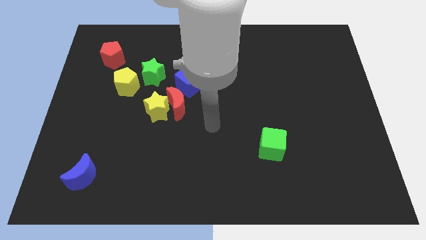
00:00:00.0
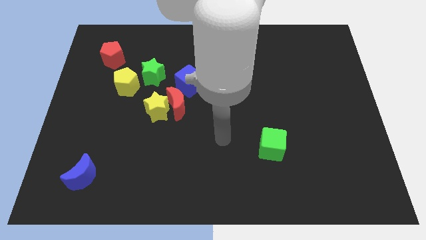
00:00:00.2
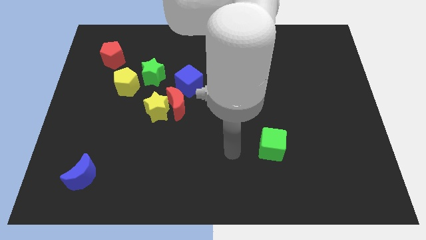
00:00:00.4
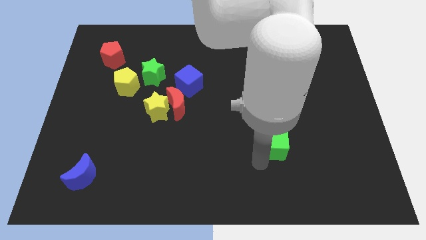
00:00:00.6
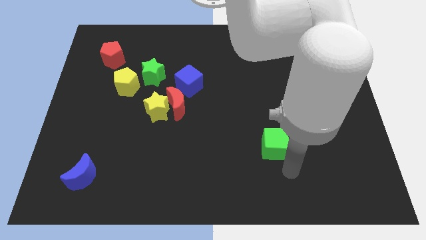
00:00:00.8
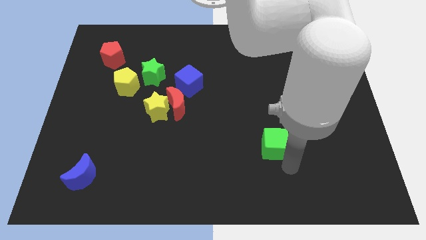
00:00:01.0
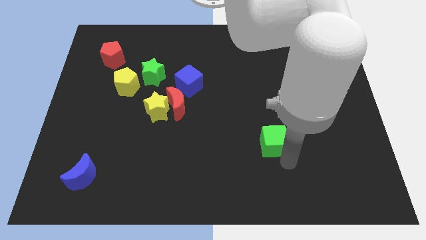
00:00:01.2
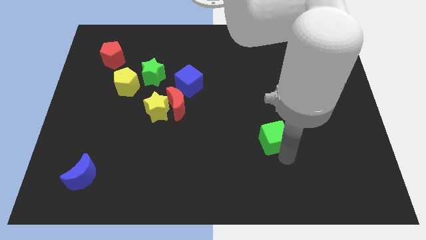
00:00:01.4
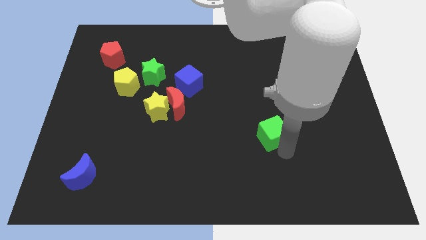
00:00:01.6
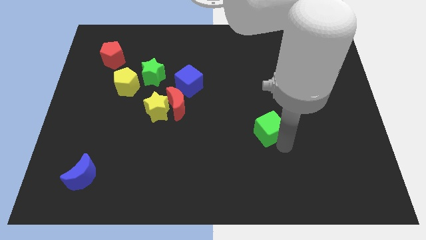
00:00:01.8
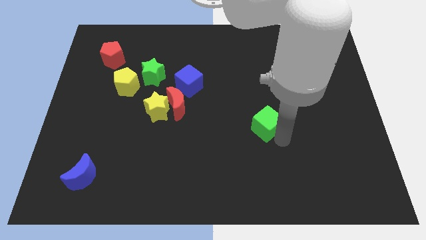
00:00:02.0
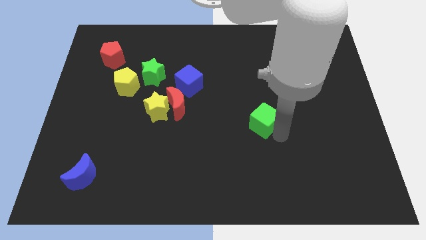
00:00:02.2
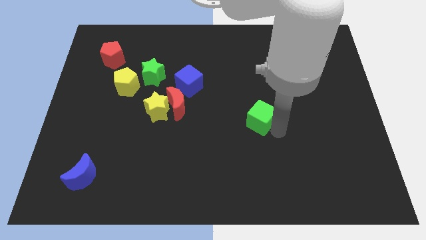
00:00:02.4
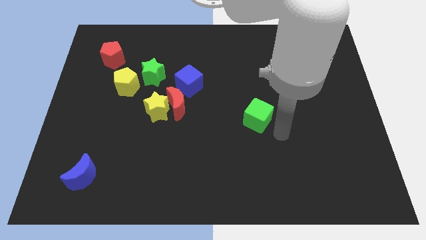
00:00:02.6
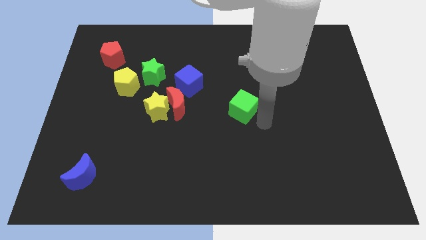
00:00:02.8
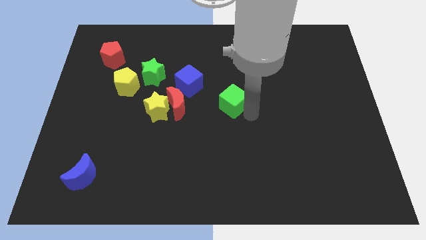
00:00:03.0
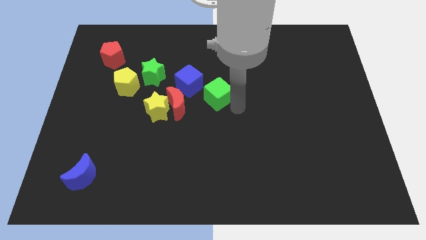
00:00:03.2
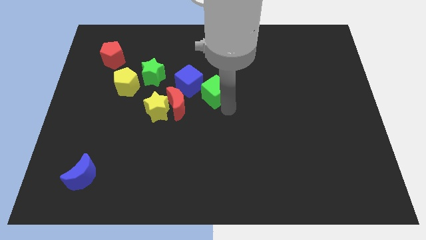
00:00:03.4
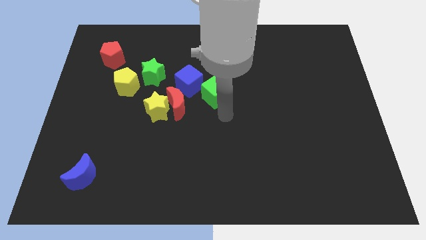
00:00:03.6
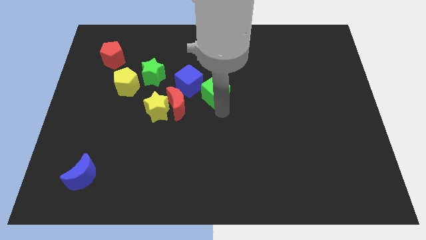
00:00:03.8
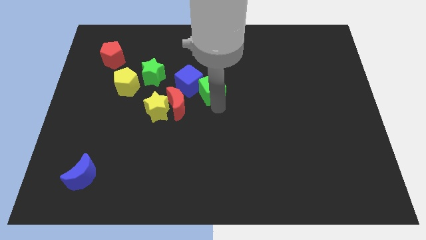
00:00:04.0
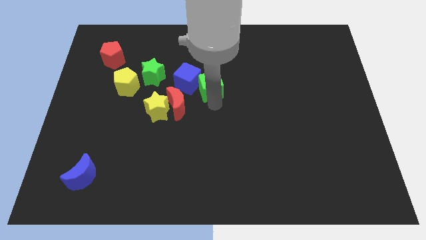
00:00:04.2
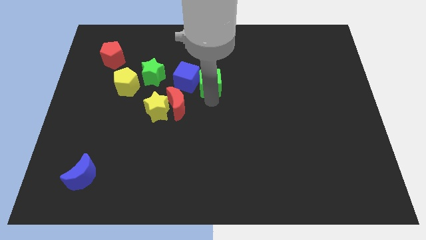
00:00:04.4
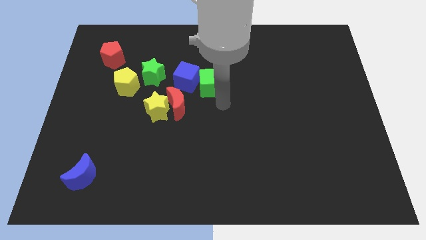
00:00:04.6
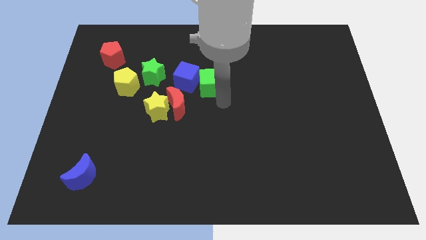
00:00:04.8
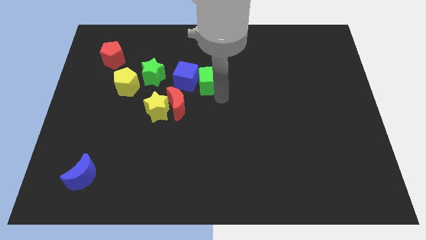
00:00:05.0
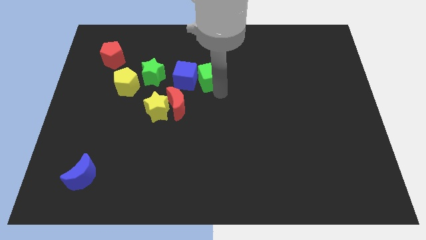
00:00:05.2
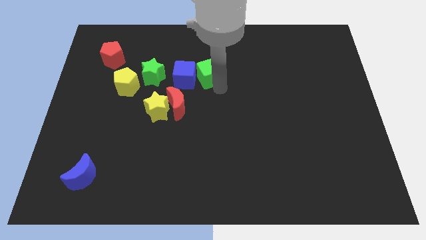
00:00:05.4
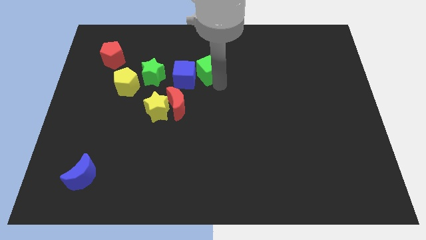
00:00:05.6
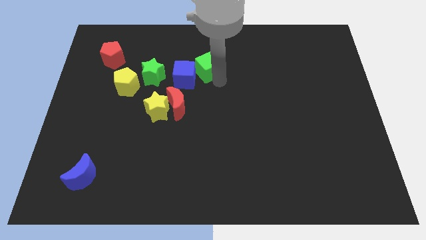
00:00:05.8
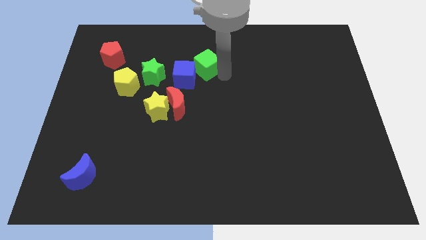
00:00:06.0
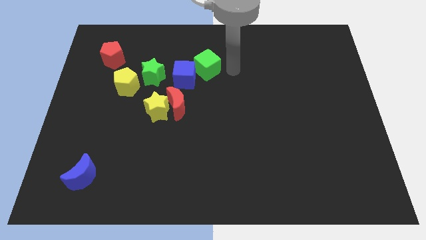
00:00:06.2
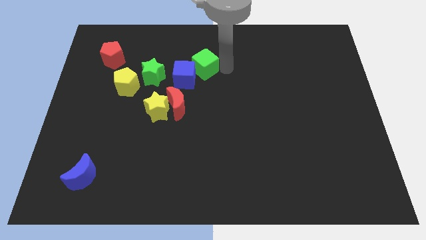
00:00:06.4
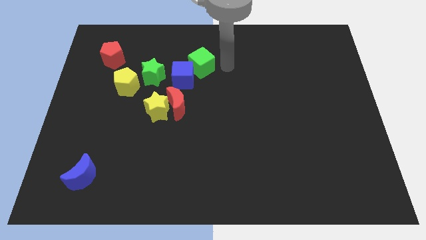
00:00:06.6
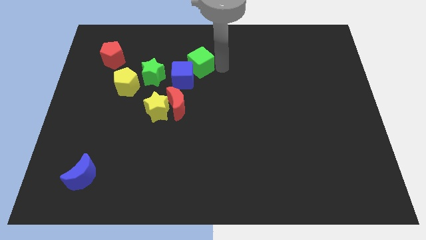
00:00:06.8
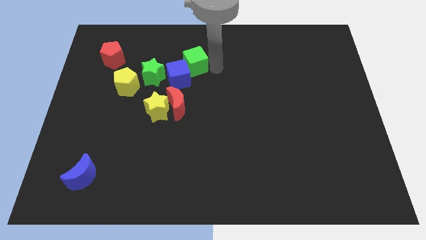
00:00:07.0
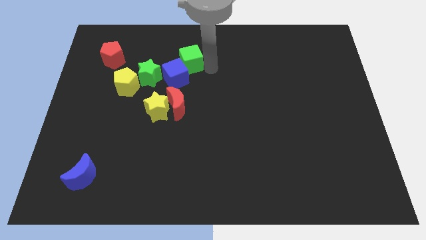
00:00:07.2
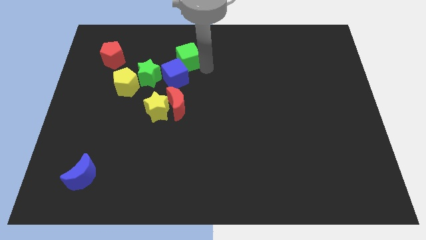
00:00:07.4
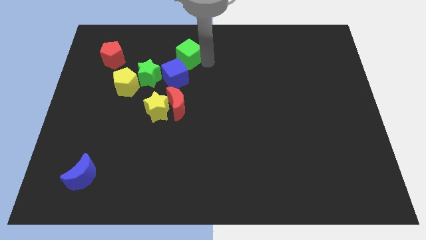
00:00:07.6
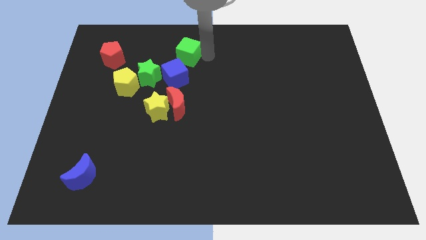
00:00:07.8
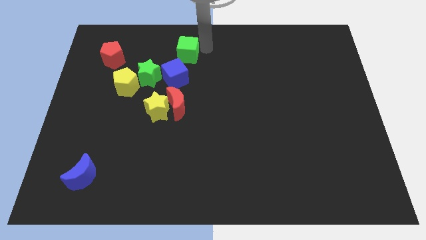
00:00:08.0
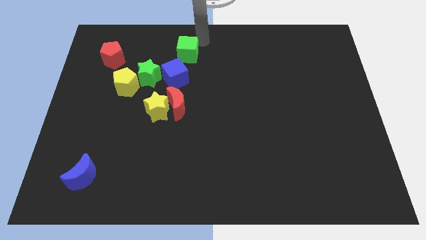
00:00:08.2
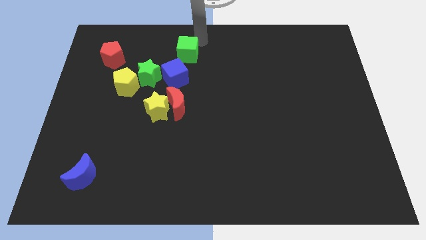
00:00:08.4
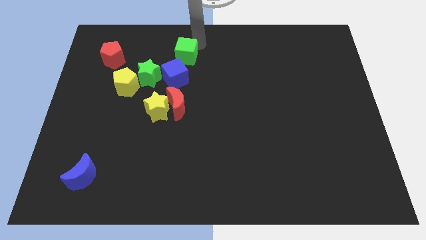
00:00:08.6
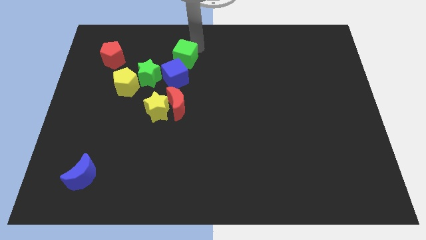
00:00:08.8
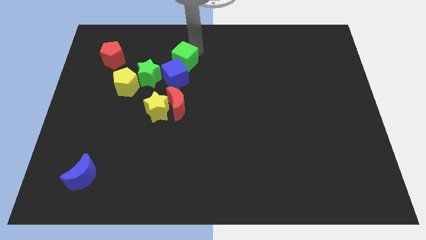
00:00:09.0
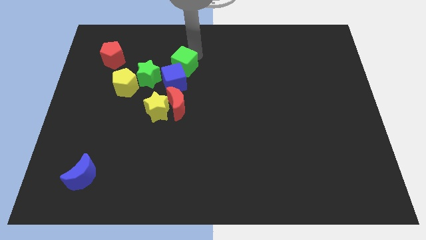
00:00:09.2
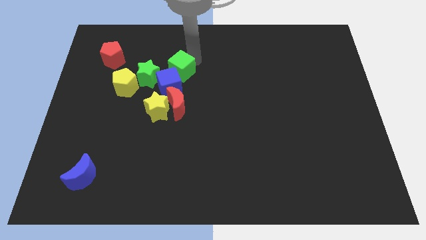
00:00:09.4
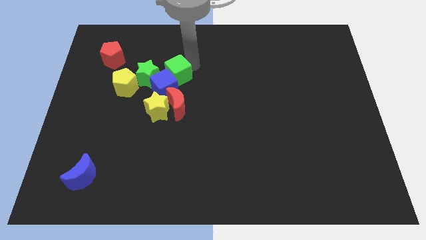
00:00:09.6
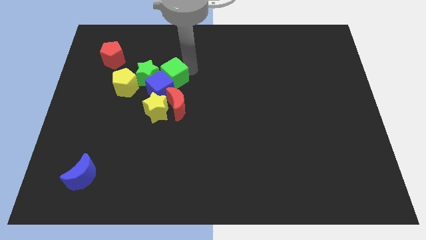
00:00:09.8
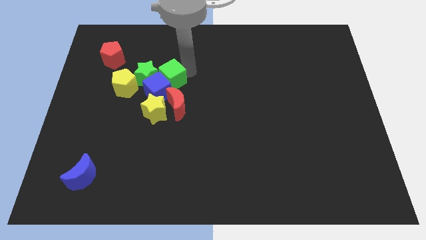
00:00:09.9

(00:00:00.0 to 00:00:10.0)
put the green cube to the green star

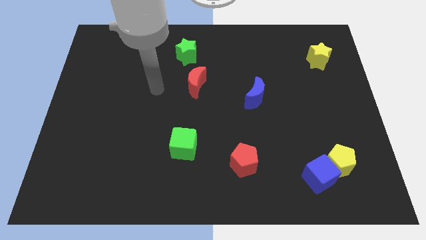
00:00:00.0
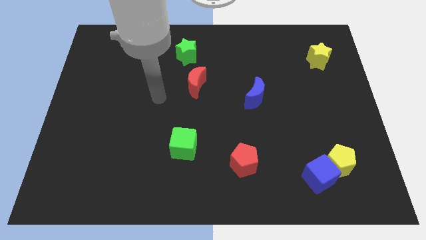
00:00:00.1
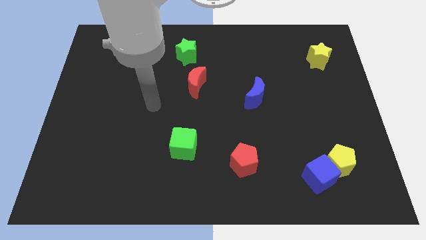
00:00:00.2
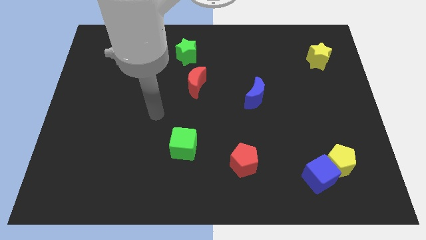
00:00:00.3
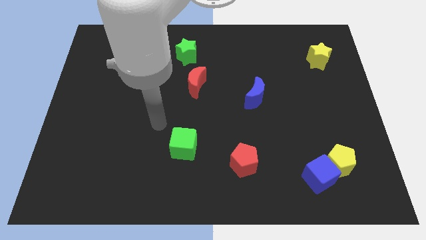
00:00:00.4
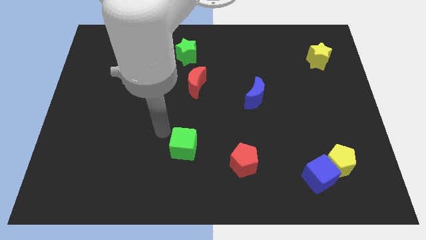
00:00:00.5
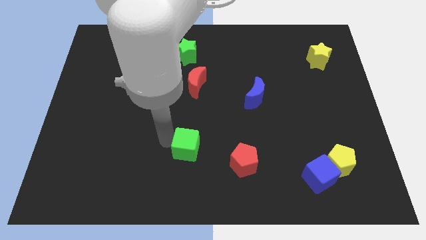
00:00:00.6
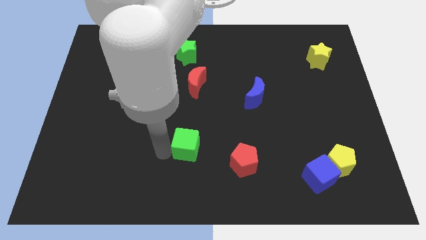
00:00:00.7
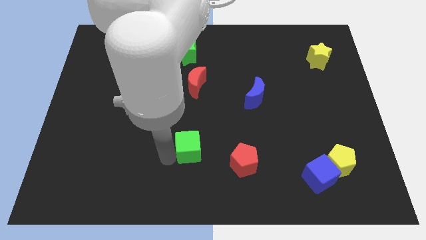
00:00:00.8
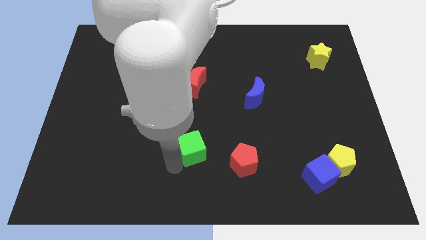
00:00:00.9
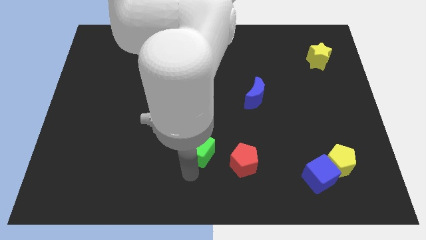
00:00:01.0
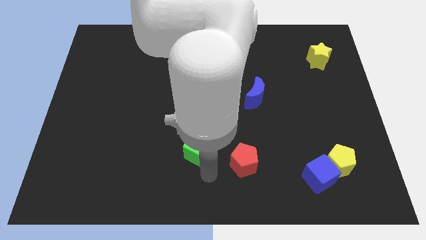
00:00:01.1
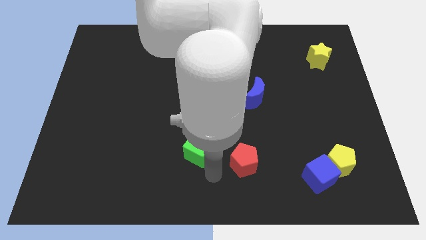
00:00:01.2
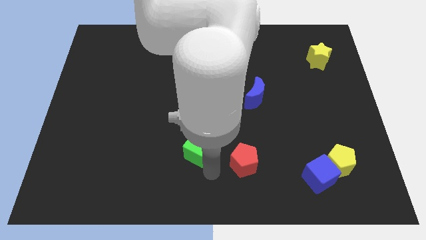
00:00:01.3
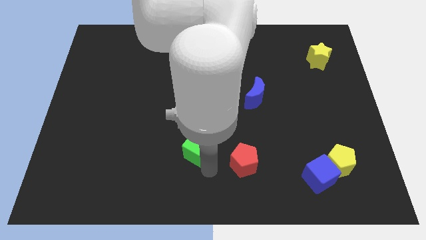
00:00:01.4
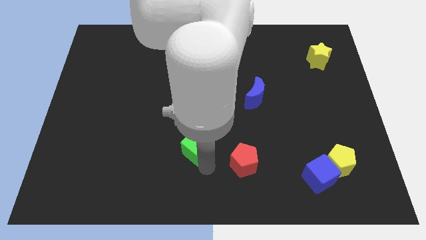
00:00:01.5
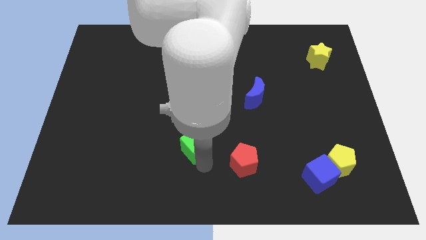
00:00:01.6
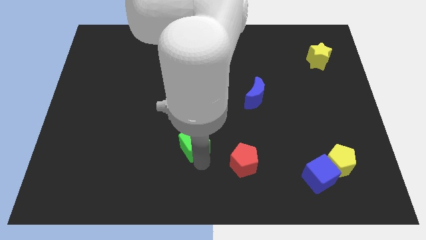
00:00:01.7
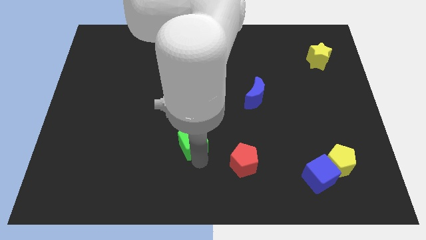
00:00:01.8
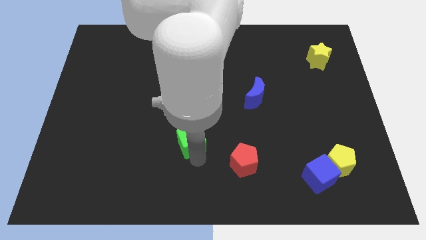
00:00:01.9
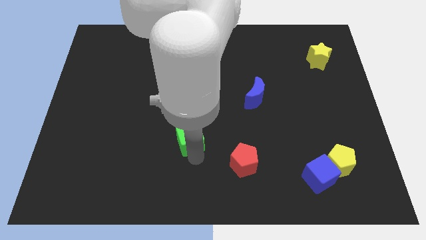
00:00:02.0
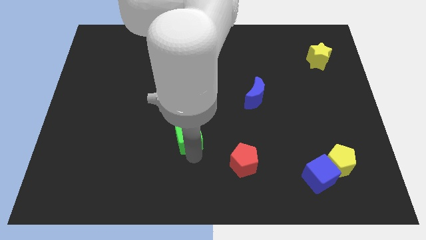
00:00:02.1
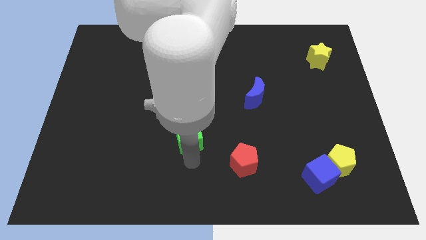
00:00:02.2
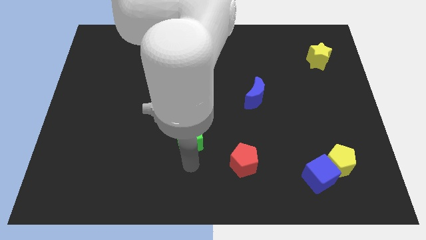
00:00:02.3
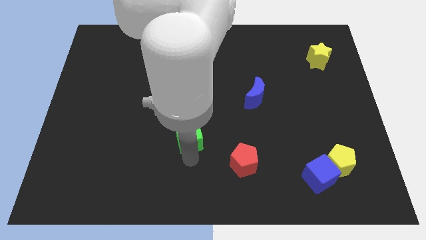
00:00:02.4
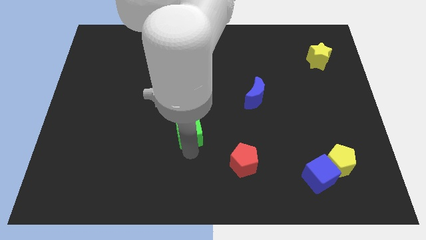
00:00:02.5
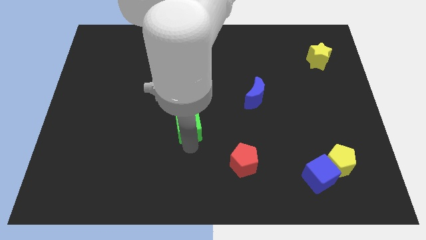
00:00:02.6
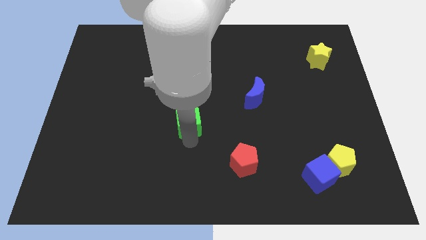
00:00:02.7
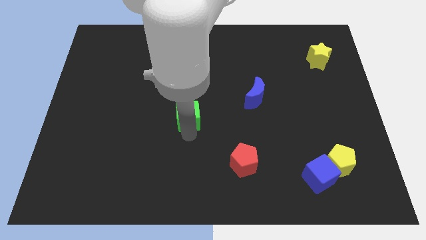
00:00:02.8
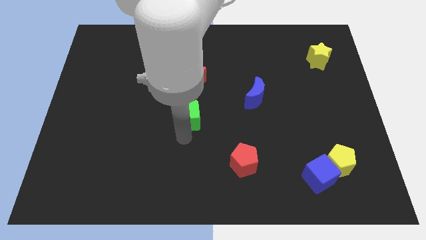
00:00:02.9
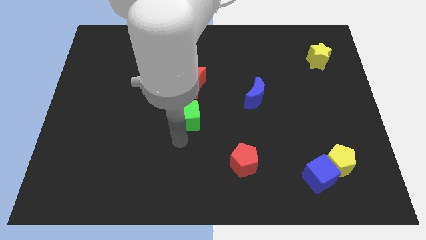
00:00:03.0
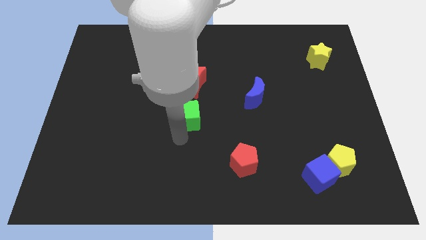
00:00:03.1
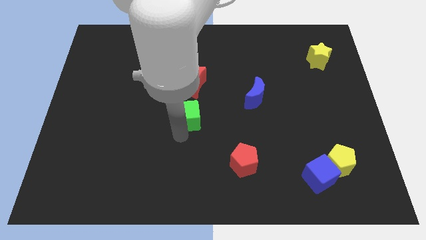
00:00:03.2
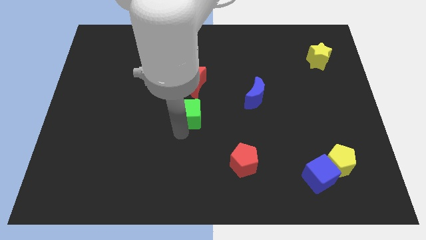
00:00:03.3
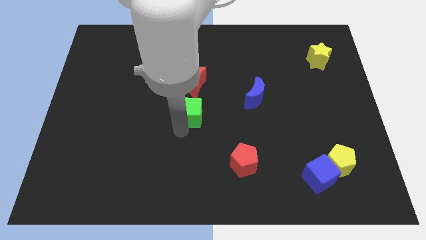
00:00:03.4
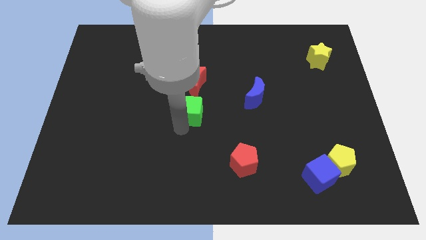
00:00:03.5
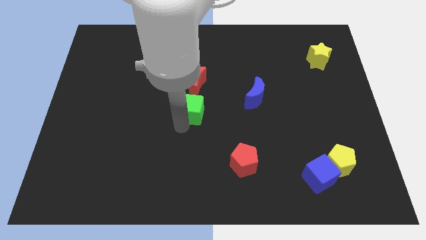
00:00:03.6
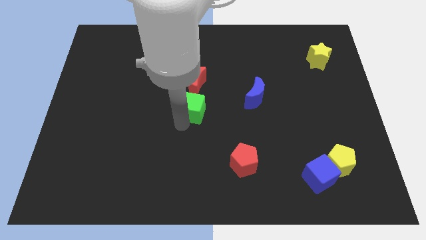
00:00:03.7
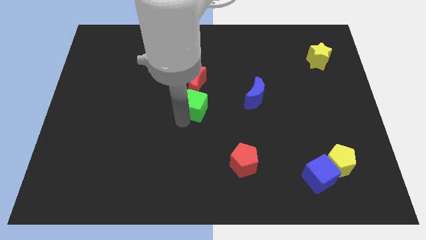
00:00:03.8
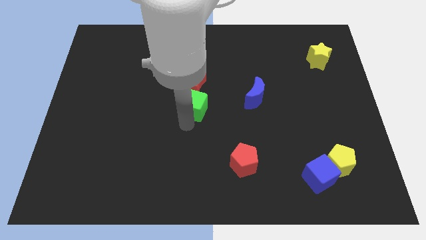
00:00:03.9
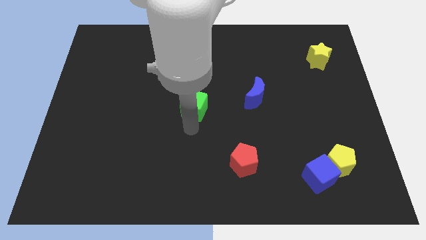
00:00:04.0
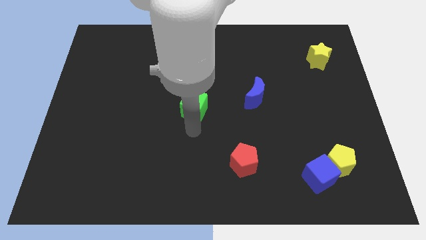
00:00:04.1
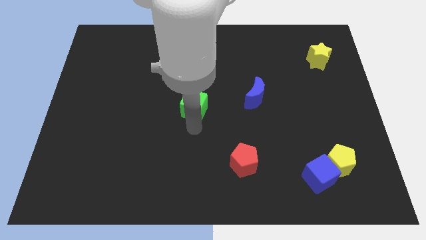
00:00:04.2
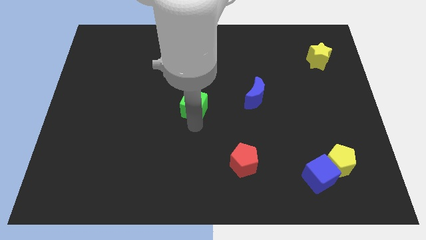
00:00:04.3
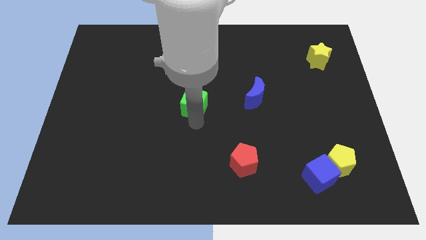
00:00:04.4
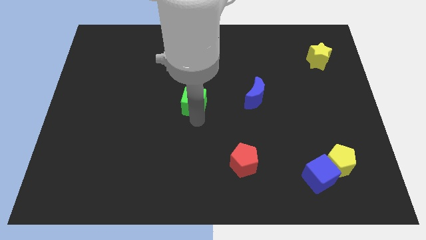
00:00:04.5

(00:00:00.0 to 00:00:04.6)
put the green cube close to the red moon
